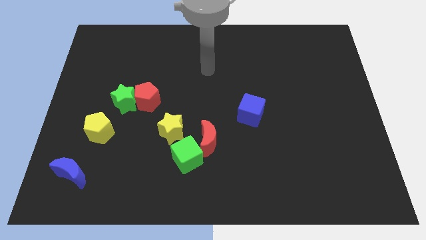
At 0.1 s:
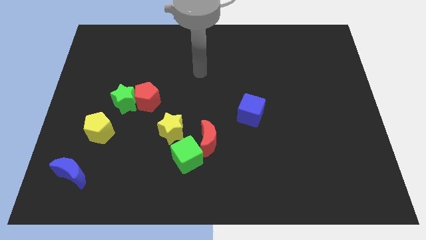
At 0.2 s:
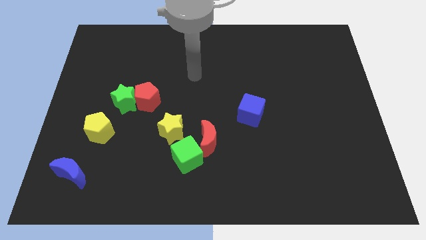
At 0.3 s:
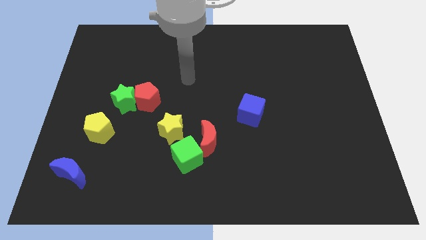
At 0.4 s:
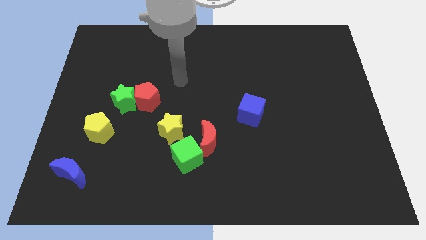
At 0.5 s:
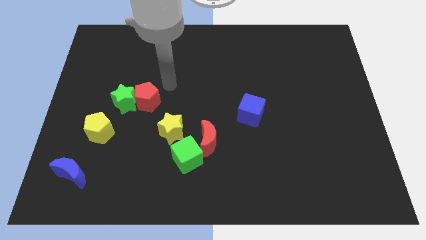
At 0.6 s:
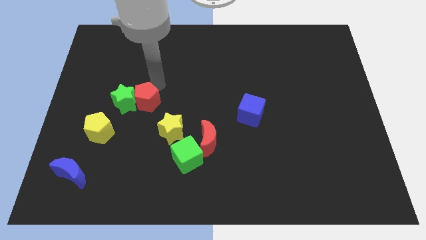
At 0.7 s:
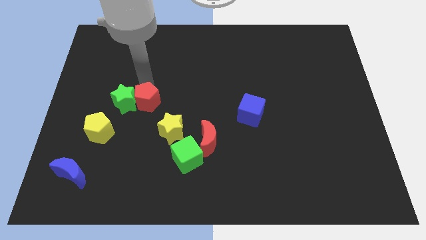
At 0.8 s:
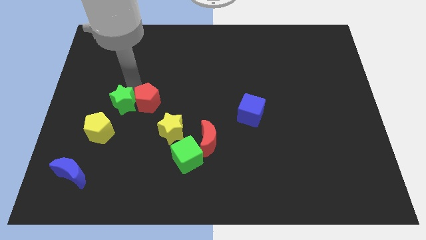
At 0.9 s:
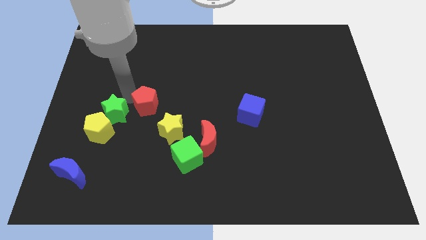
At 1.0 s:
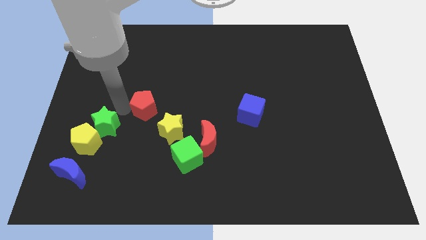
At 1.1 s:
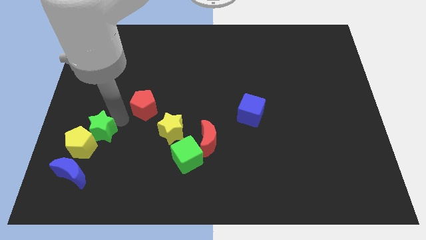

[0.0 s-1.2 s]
move the red pentagon away from the green star

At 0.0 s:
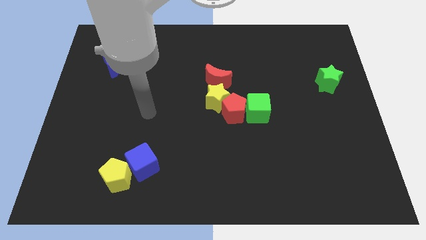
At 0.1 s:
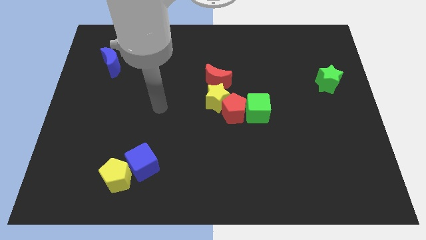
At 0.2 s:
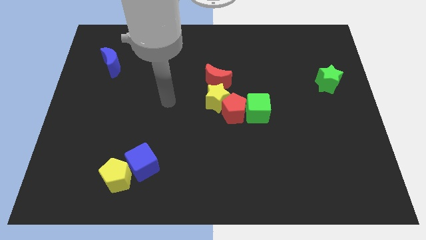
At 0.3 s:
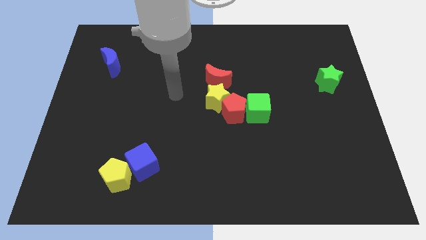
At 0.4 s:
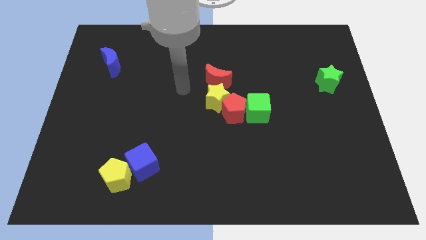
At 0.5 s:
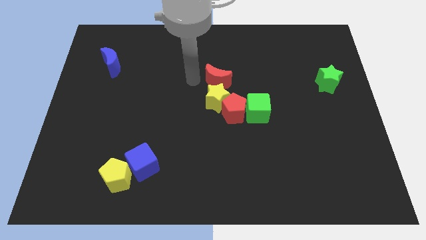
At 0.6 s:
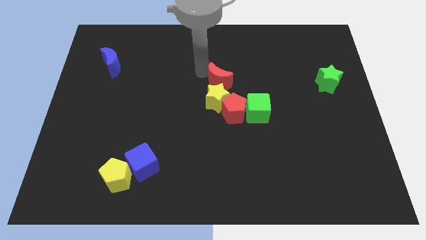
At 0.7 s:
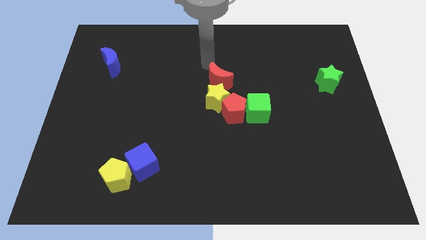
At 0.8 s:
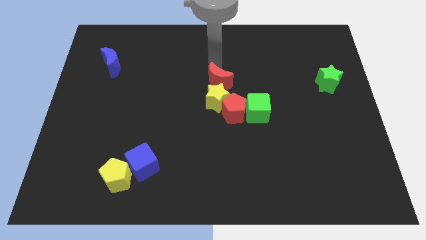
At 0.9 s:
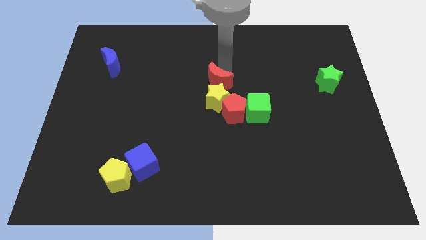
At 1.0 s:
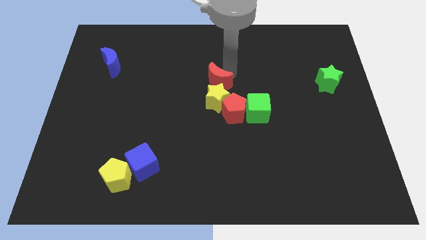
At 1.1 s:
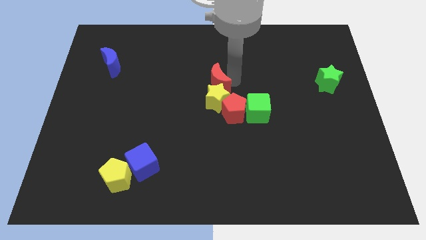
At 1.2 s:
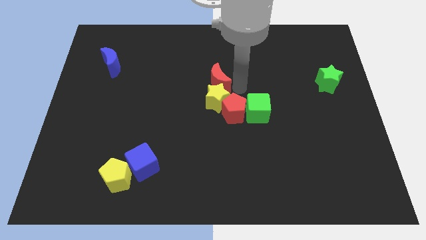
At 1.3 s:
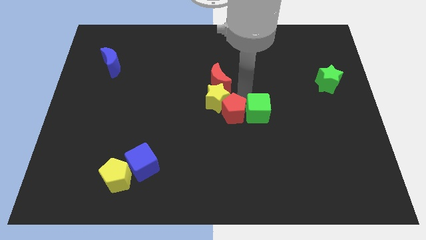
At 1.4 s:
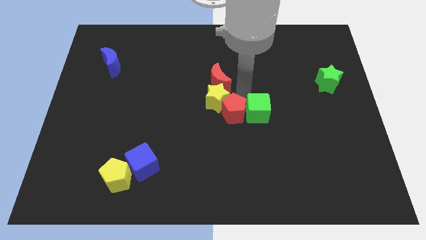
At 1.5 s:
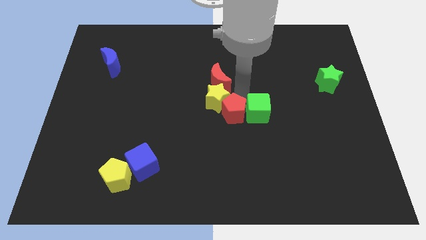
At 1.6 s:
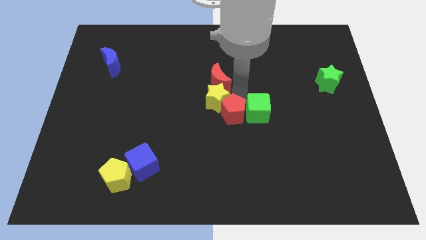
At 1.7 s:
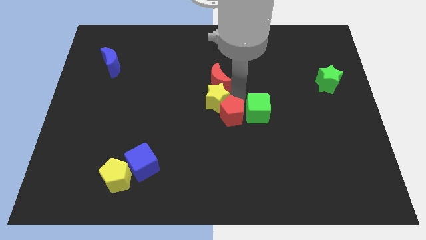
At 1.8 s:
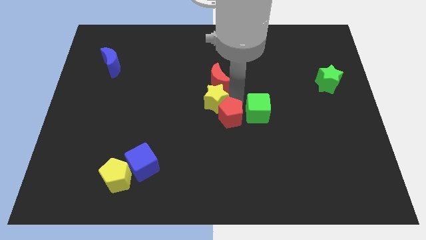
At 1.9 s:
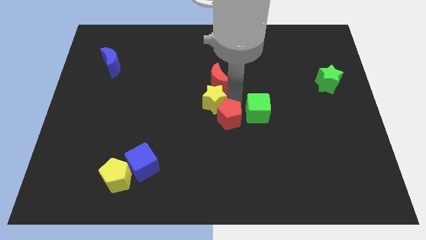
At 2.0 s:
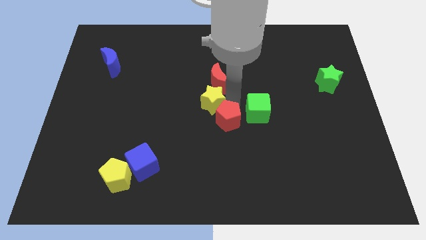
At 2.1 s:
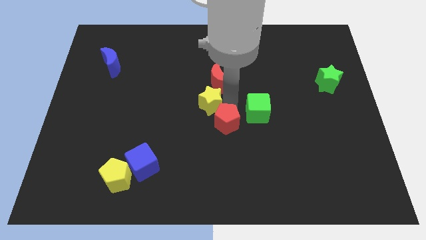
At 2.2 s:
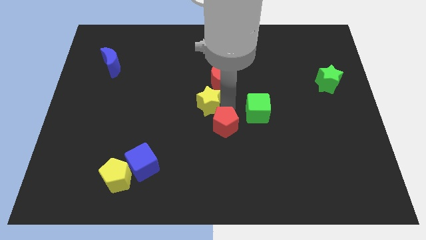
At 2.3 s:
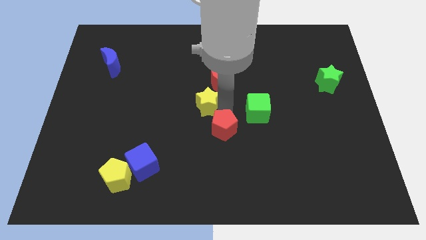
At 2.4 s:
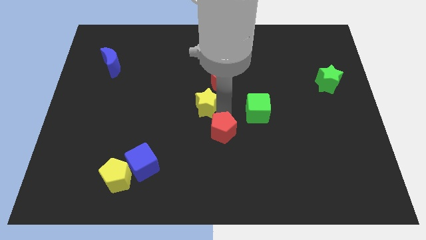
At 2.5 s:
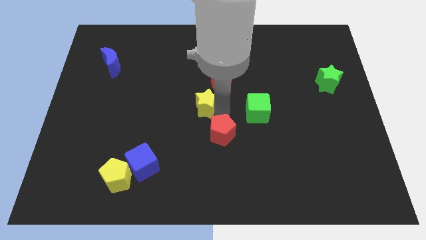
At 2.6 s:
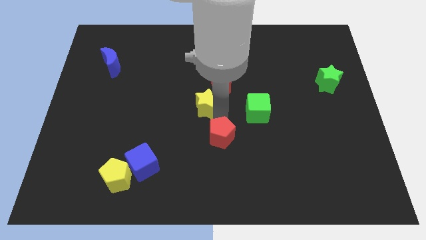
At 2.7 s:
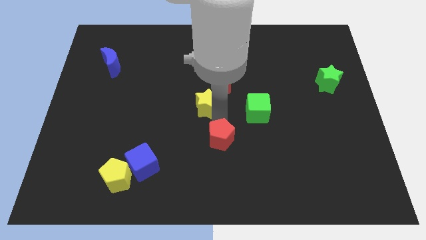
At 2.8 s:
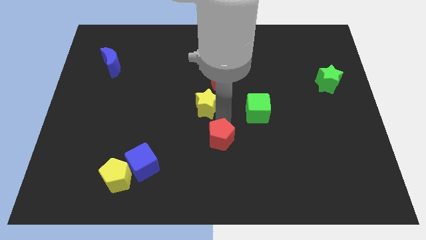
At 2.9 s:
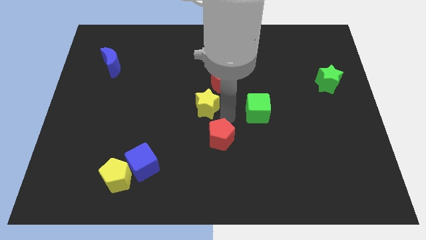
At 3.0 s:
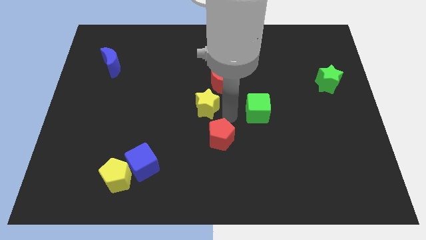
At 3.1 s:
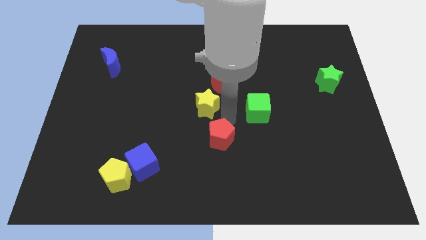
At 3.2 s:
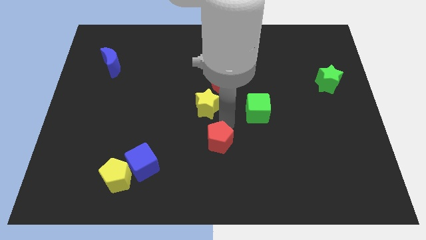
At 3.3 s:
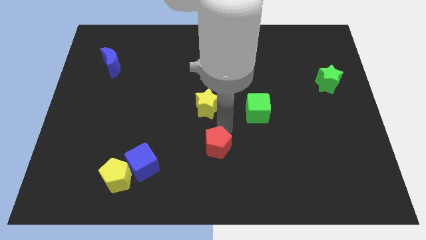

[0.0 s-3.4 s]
move the red pentagon away from the yellow star and green cube

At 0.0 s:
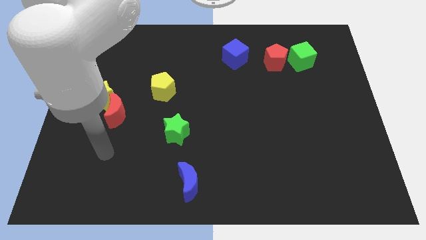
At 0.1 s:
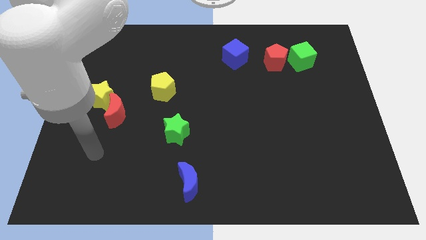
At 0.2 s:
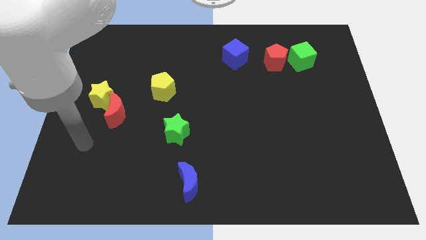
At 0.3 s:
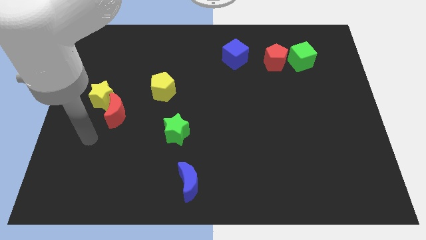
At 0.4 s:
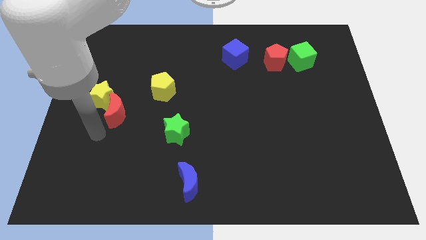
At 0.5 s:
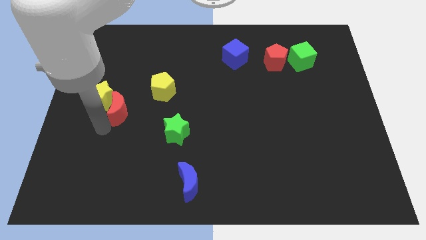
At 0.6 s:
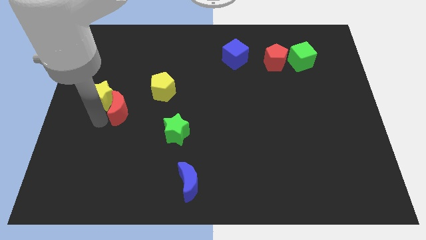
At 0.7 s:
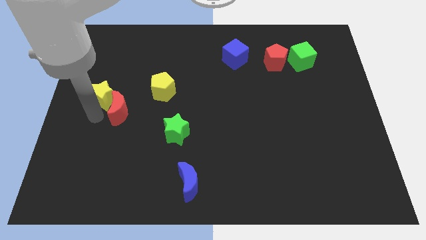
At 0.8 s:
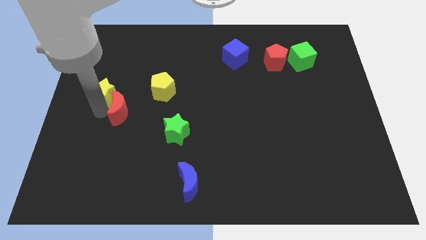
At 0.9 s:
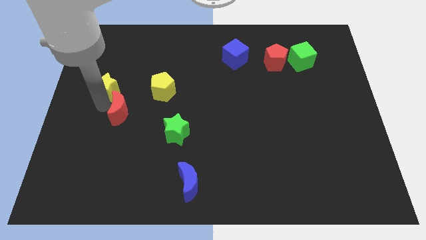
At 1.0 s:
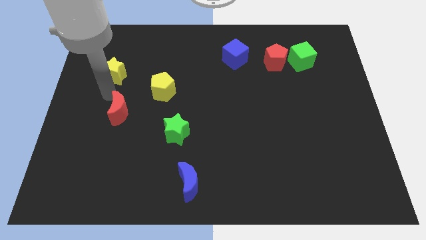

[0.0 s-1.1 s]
pull the red moon apart from the yellow star

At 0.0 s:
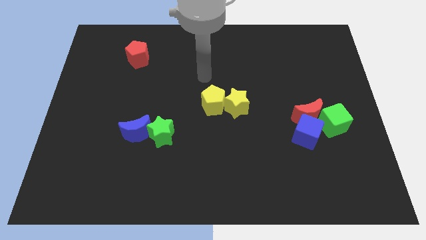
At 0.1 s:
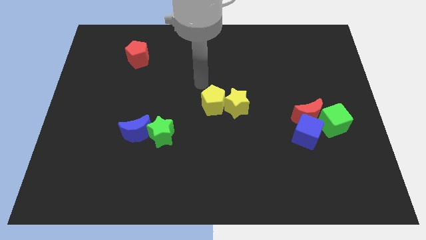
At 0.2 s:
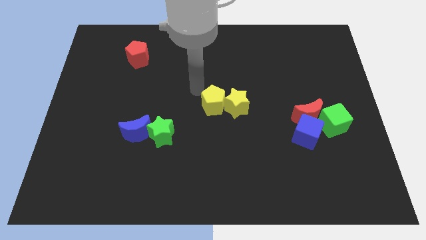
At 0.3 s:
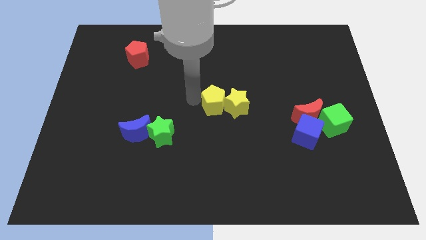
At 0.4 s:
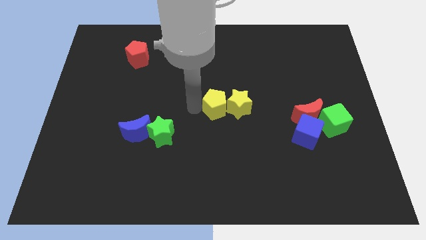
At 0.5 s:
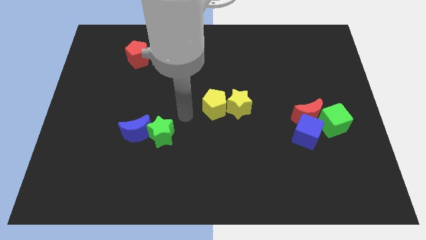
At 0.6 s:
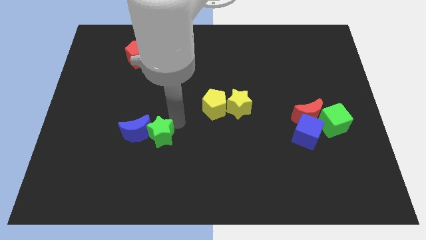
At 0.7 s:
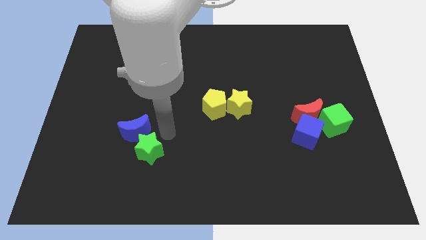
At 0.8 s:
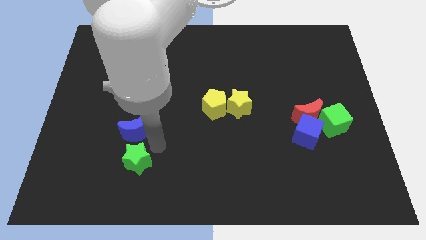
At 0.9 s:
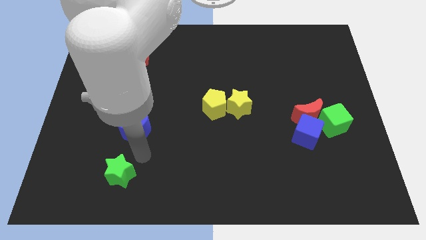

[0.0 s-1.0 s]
pull the blue moon apart from the green star

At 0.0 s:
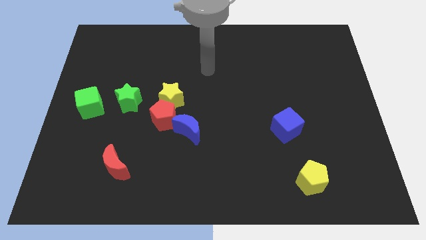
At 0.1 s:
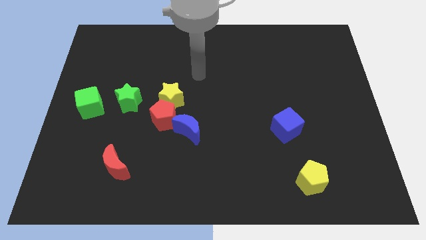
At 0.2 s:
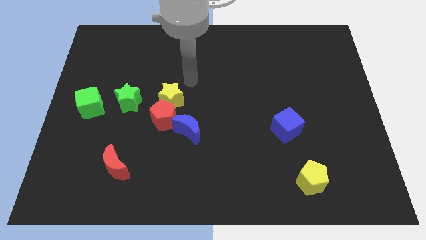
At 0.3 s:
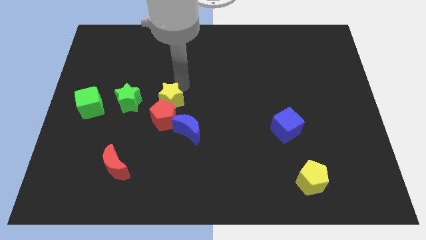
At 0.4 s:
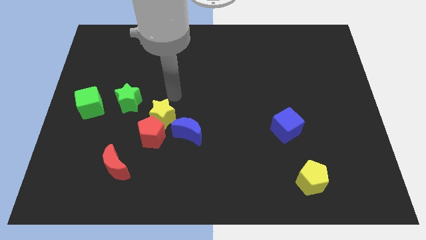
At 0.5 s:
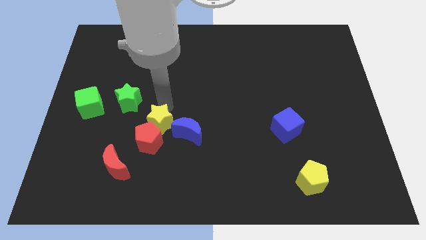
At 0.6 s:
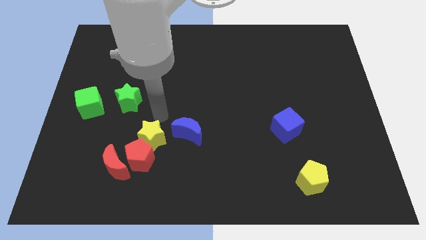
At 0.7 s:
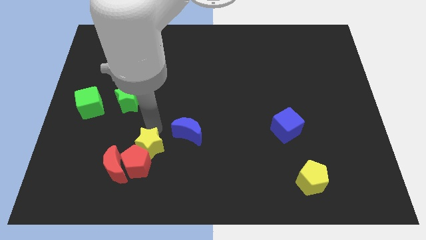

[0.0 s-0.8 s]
move the red pentagon away from the group

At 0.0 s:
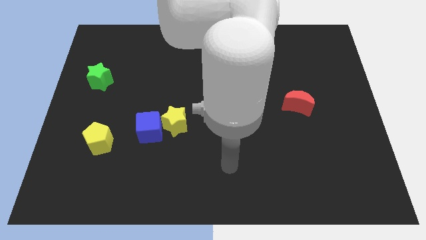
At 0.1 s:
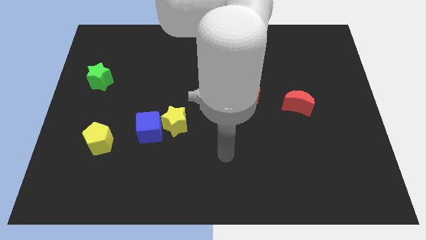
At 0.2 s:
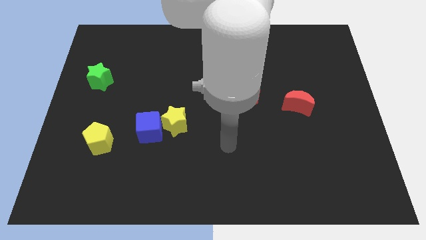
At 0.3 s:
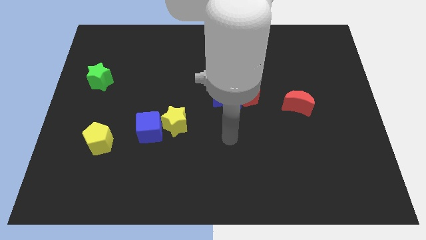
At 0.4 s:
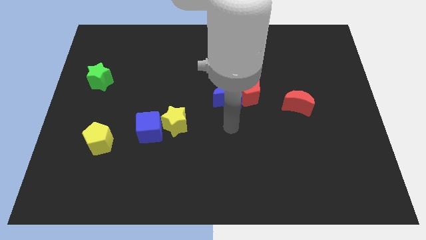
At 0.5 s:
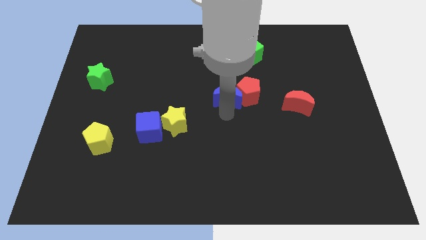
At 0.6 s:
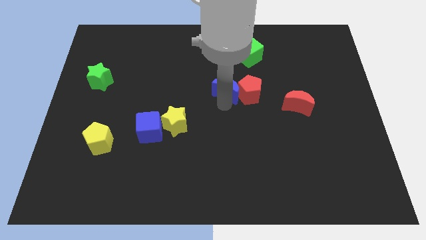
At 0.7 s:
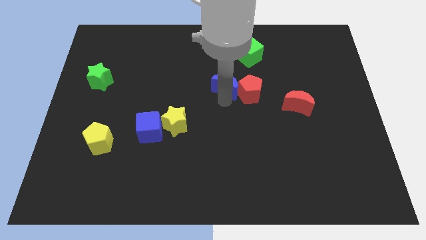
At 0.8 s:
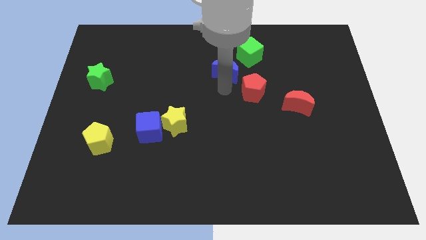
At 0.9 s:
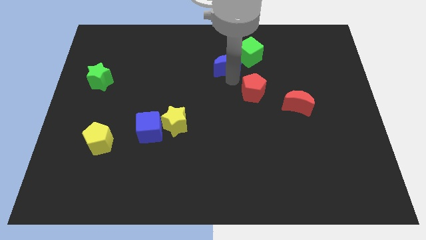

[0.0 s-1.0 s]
separate the red pentagon from the blue moon

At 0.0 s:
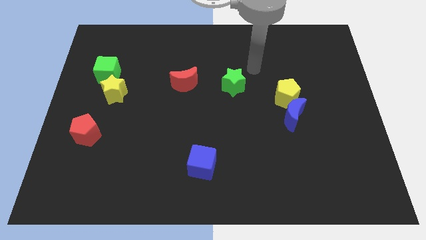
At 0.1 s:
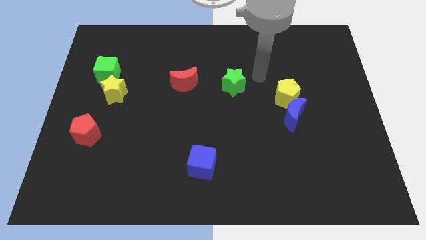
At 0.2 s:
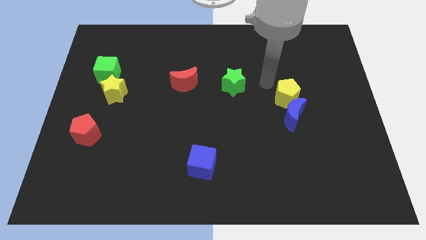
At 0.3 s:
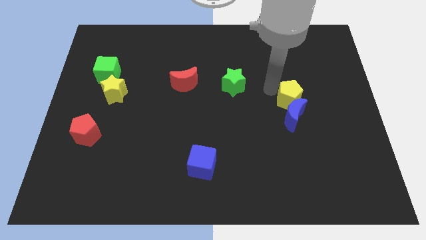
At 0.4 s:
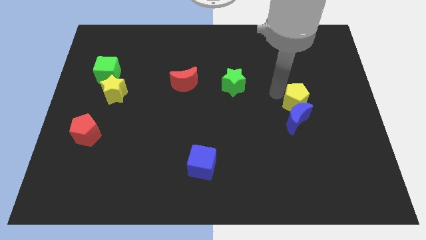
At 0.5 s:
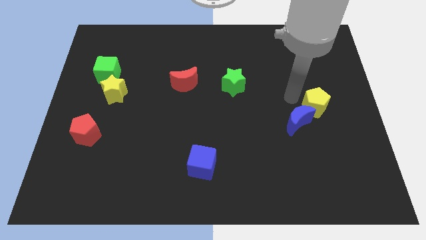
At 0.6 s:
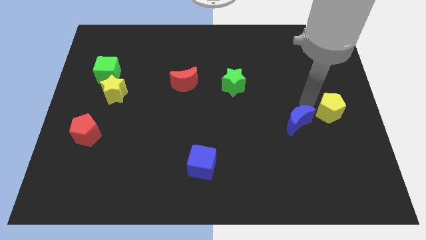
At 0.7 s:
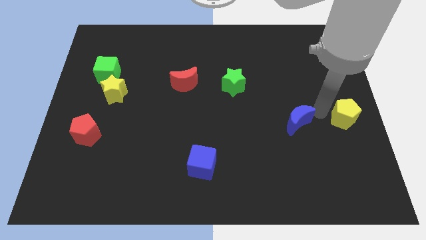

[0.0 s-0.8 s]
separate the blue moon from the yellow pentagon
